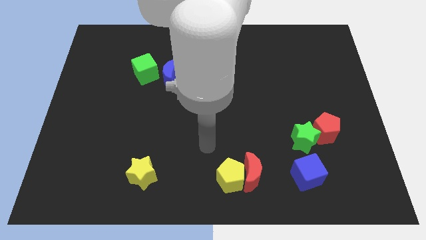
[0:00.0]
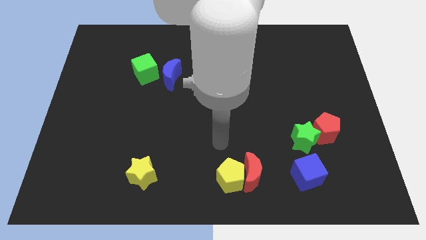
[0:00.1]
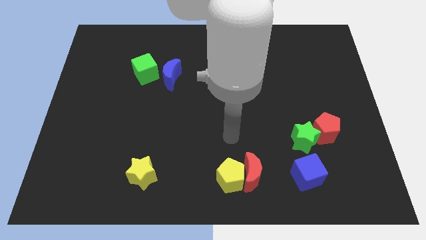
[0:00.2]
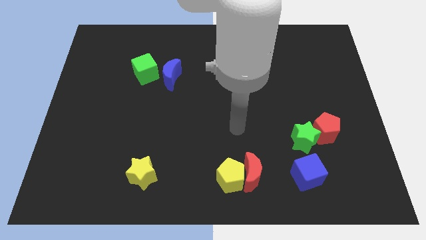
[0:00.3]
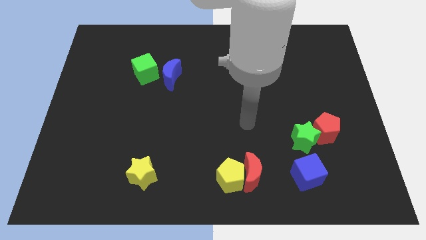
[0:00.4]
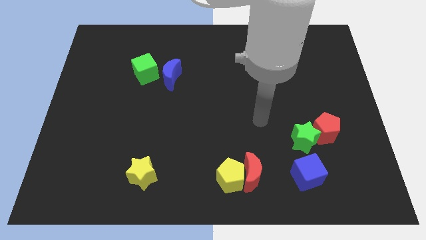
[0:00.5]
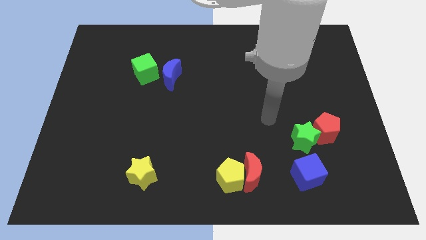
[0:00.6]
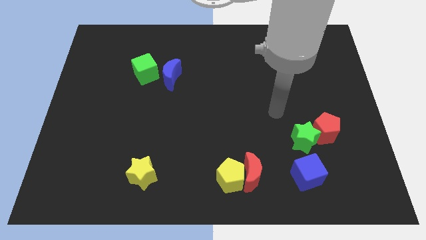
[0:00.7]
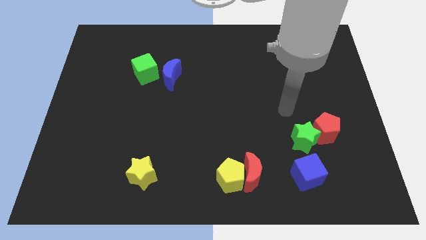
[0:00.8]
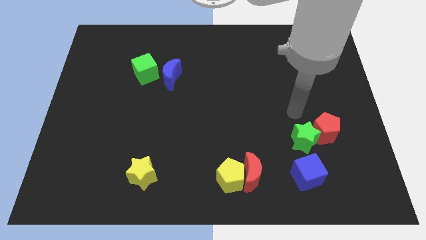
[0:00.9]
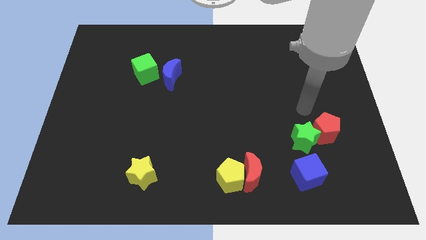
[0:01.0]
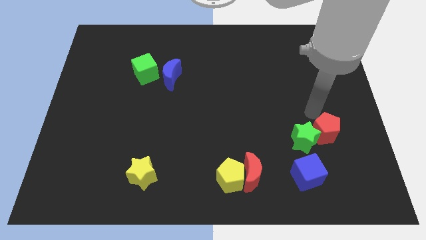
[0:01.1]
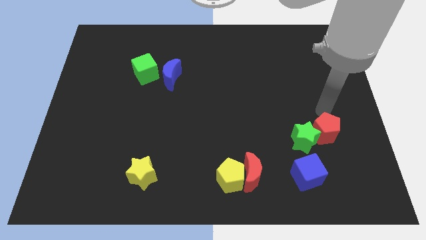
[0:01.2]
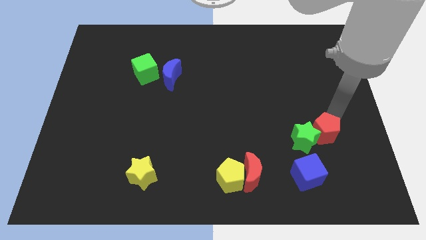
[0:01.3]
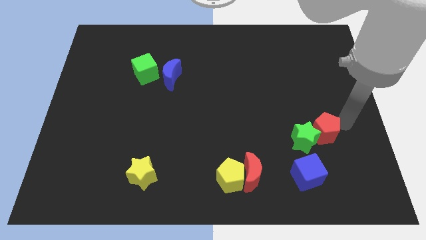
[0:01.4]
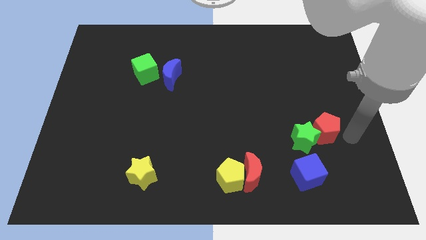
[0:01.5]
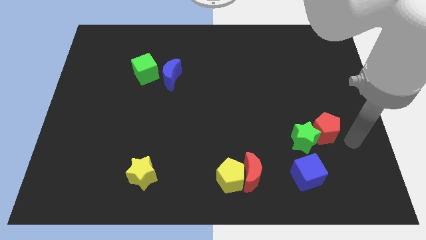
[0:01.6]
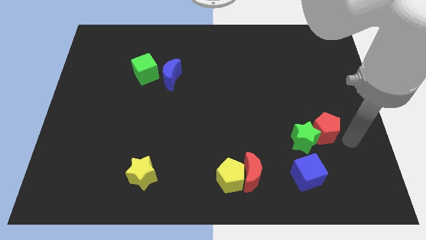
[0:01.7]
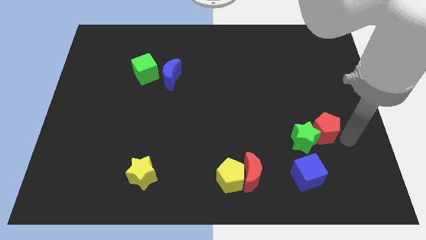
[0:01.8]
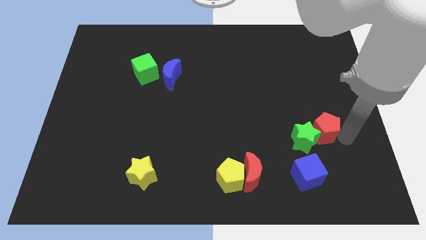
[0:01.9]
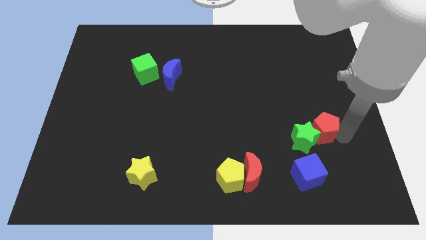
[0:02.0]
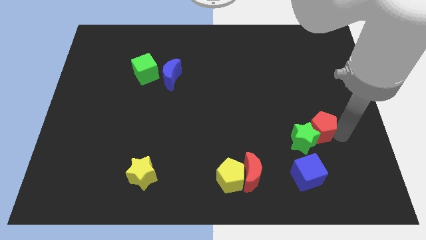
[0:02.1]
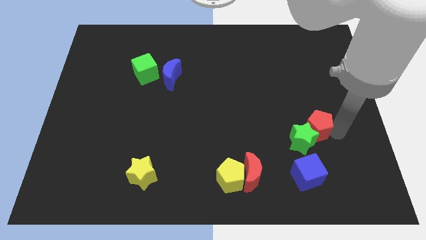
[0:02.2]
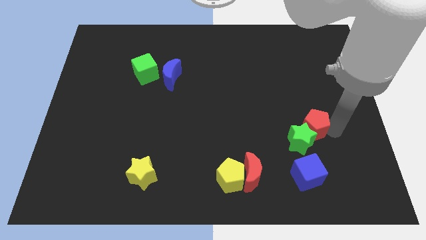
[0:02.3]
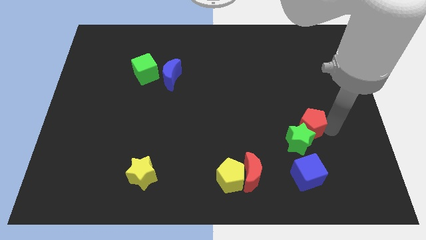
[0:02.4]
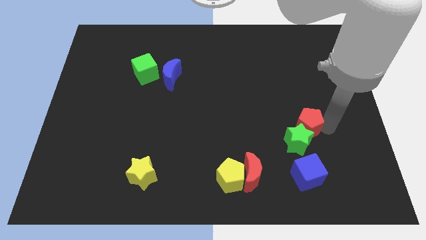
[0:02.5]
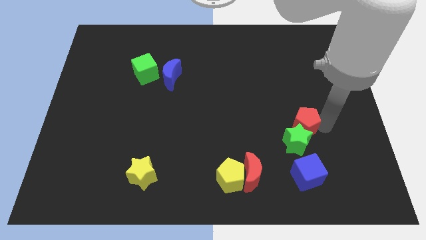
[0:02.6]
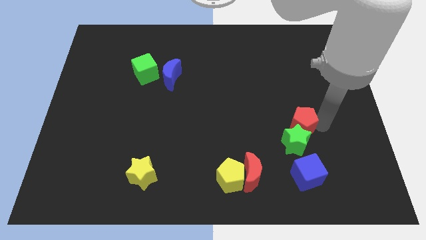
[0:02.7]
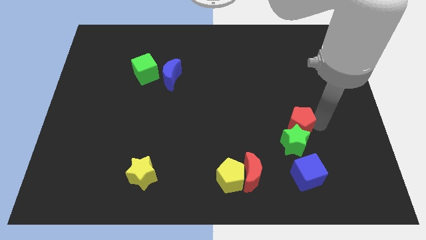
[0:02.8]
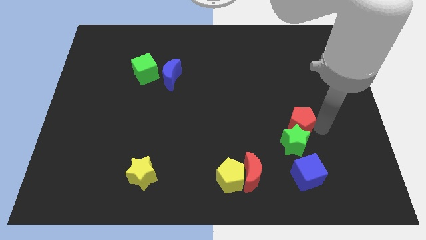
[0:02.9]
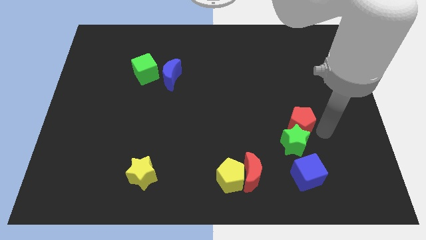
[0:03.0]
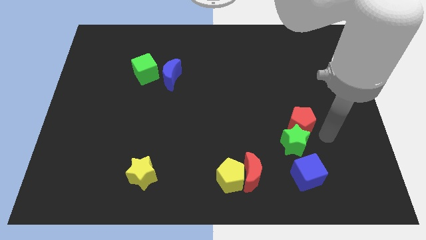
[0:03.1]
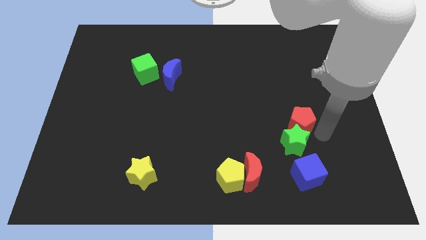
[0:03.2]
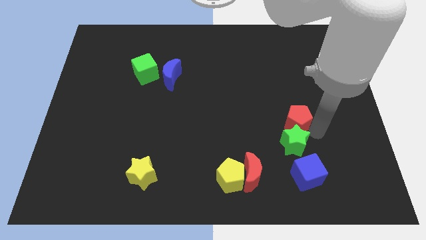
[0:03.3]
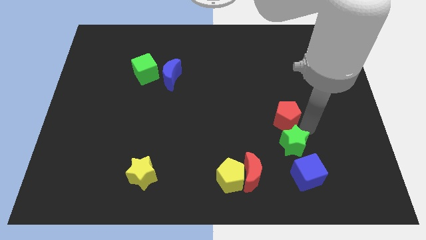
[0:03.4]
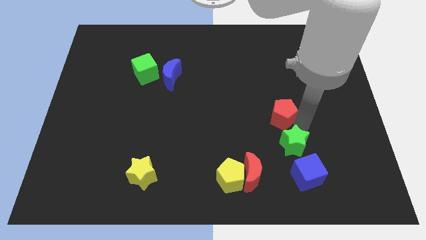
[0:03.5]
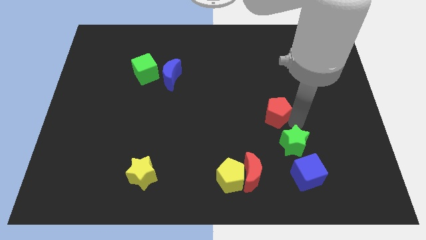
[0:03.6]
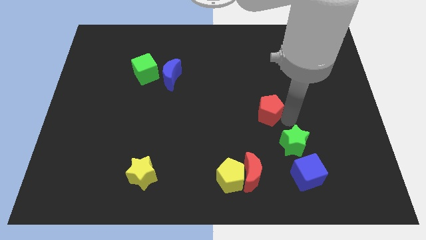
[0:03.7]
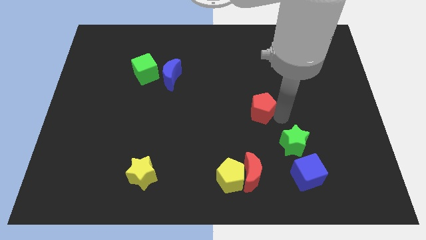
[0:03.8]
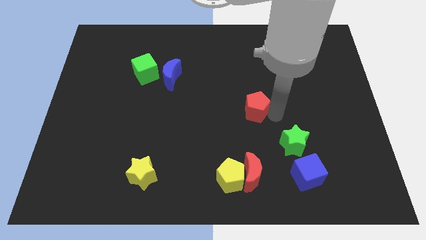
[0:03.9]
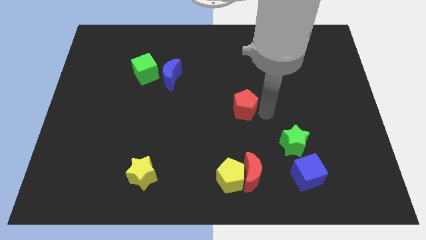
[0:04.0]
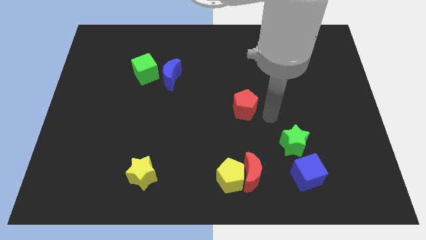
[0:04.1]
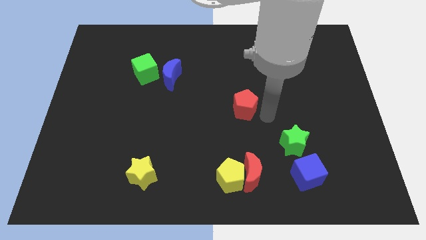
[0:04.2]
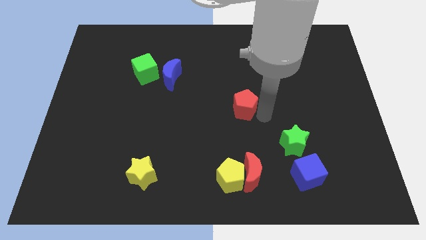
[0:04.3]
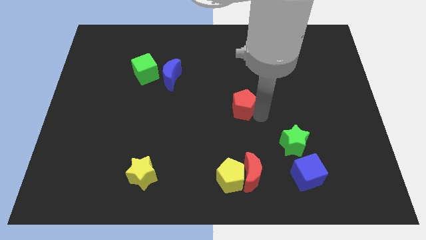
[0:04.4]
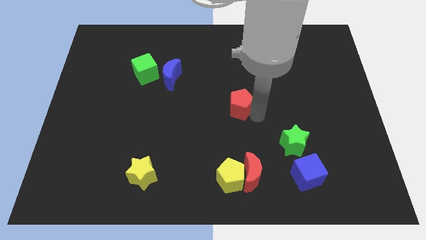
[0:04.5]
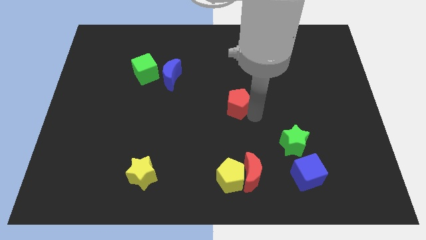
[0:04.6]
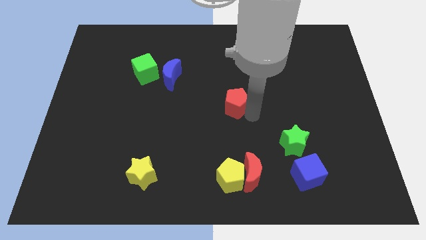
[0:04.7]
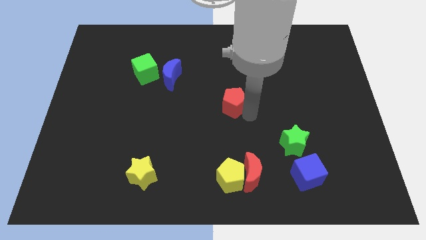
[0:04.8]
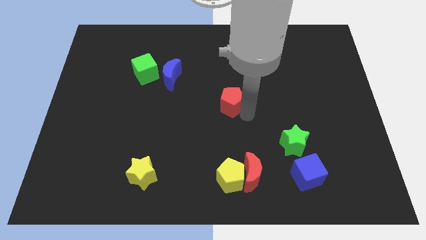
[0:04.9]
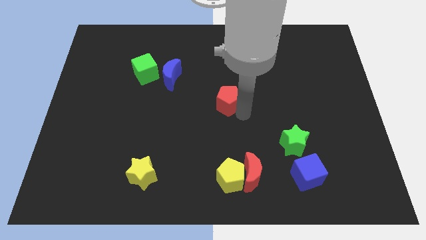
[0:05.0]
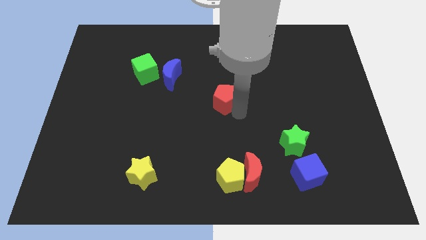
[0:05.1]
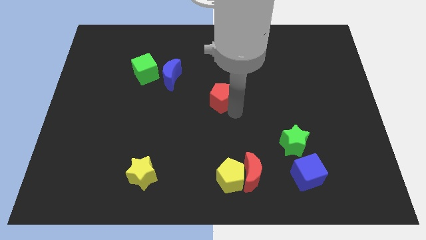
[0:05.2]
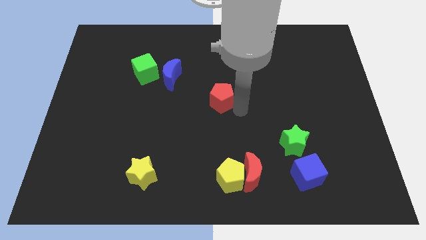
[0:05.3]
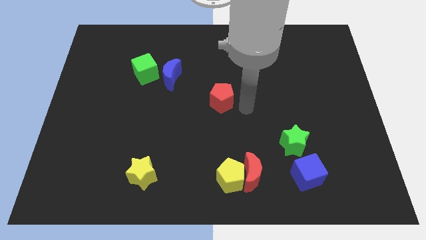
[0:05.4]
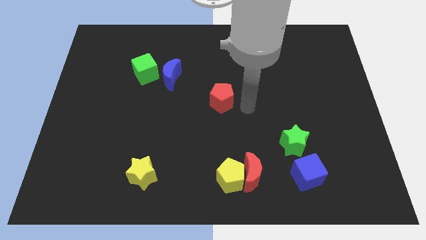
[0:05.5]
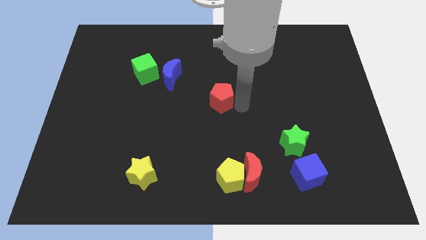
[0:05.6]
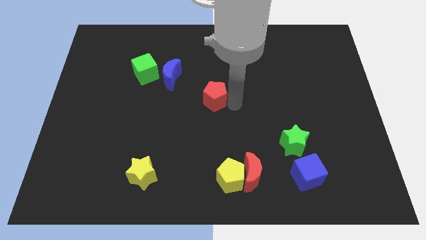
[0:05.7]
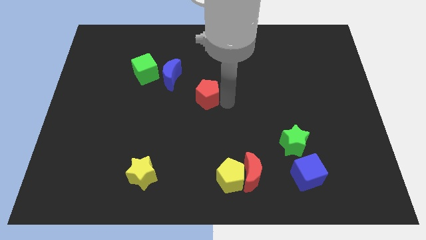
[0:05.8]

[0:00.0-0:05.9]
push the red pentagon diagonally down and to the right of the blue moon

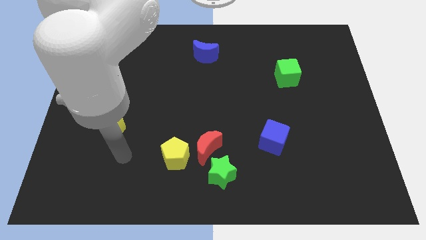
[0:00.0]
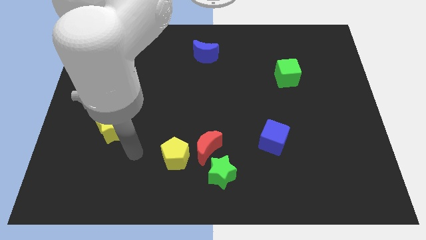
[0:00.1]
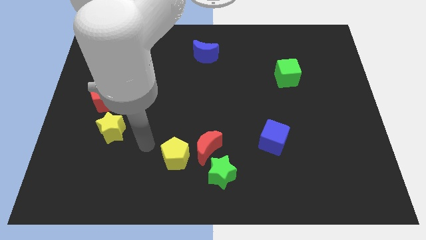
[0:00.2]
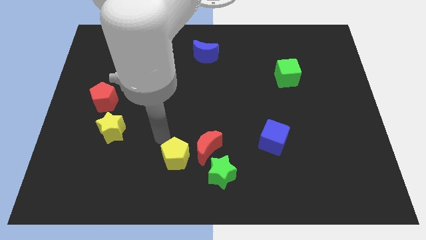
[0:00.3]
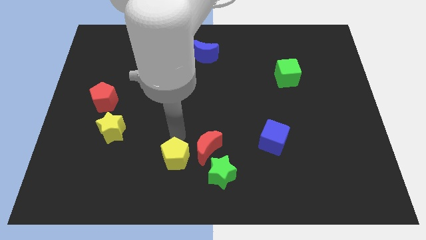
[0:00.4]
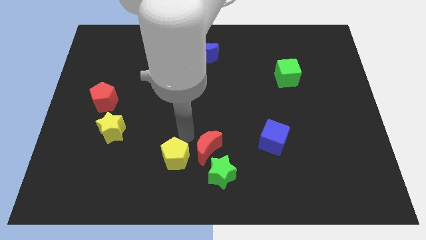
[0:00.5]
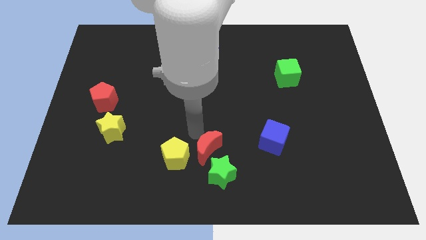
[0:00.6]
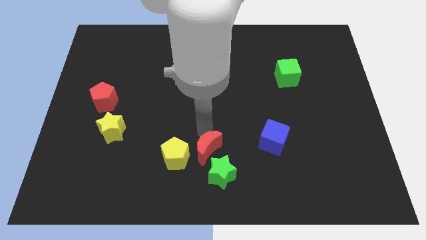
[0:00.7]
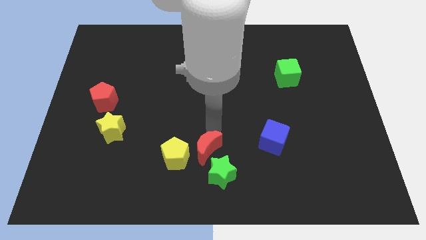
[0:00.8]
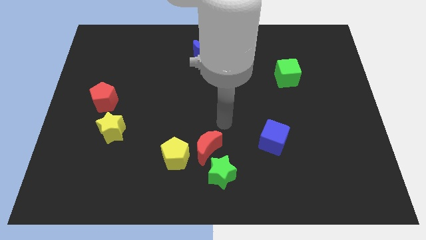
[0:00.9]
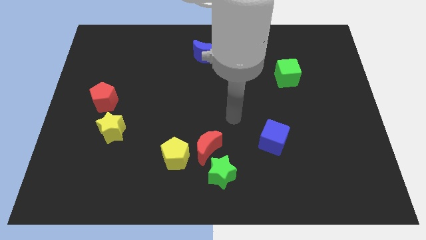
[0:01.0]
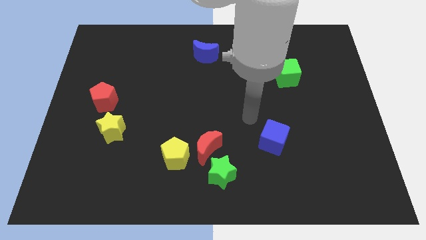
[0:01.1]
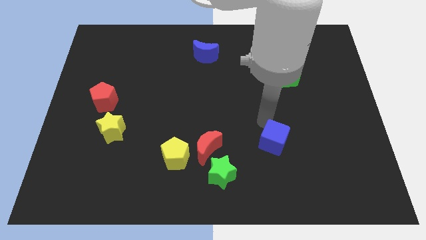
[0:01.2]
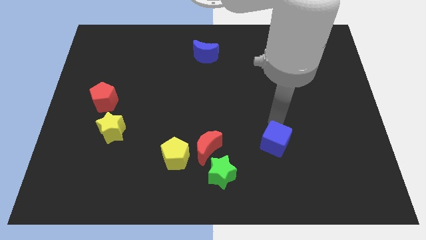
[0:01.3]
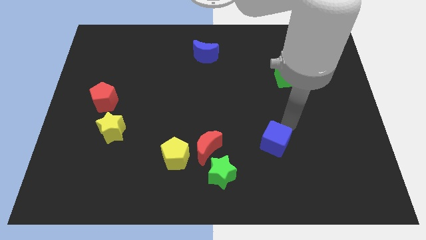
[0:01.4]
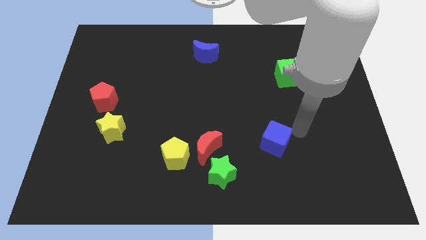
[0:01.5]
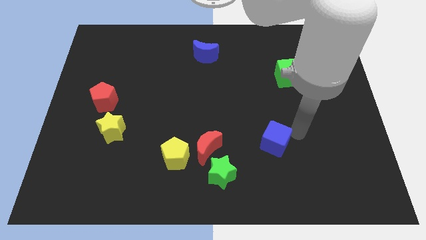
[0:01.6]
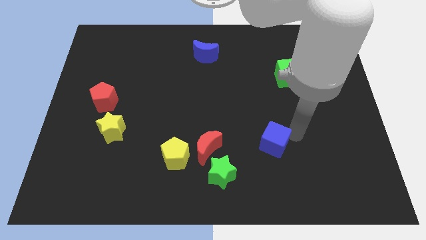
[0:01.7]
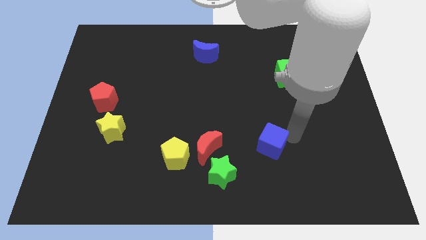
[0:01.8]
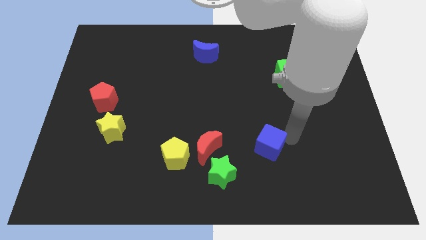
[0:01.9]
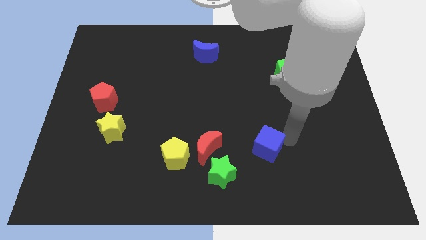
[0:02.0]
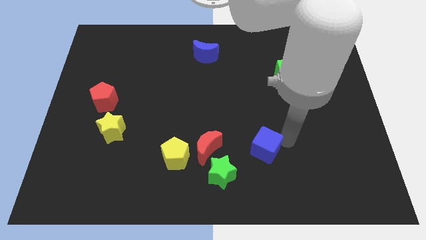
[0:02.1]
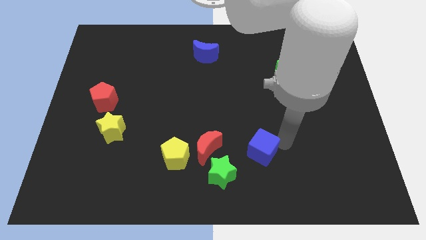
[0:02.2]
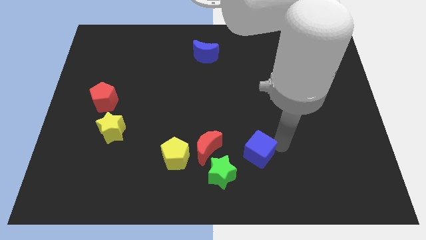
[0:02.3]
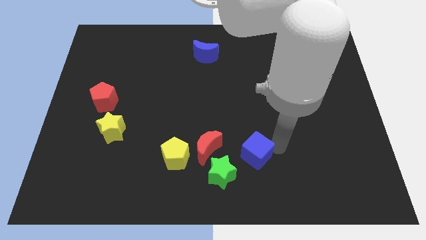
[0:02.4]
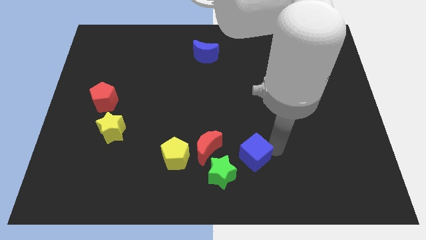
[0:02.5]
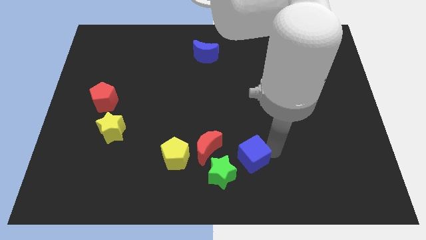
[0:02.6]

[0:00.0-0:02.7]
push the blue cube right of the yellow pentagon
